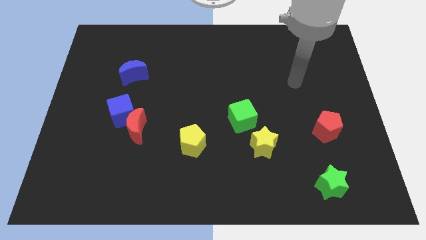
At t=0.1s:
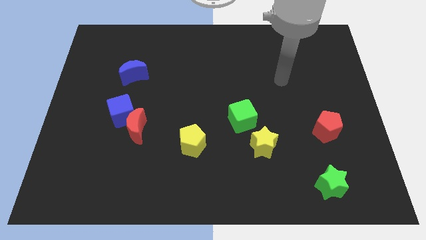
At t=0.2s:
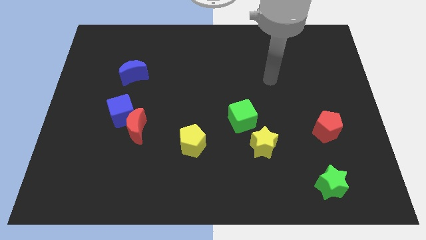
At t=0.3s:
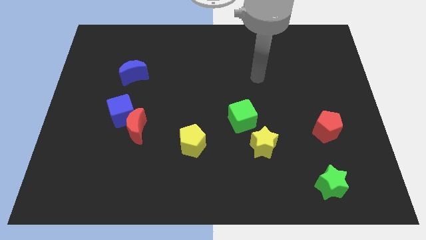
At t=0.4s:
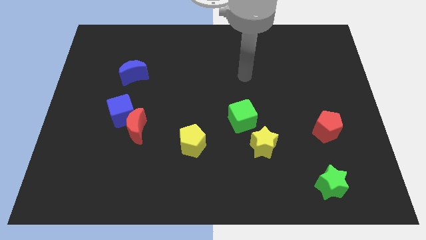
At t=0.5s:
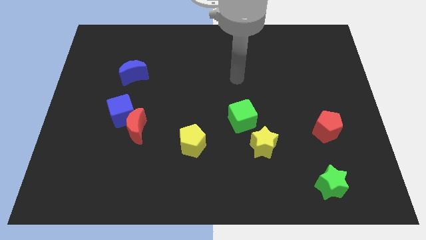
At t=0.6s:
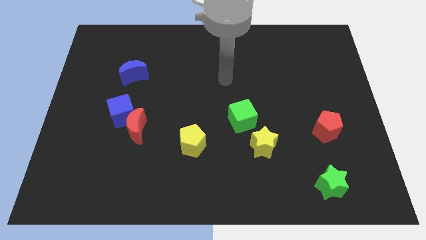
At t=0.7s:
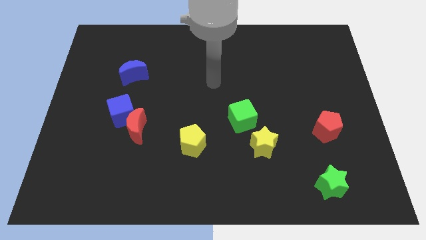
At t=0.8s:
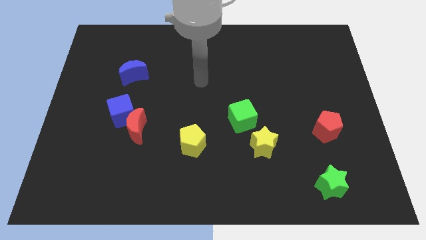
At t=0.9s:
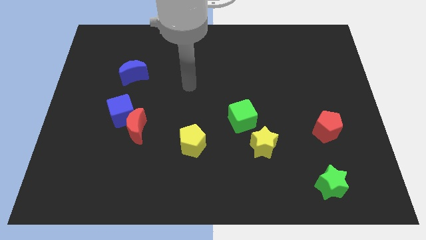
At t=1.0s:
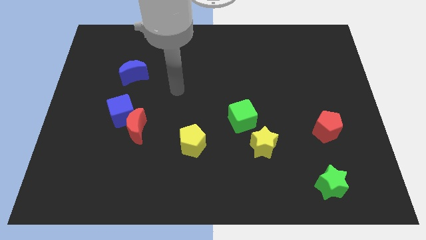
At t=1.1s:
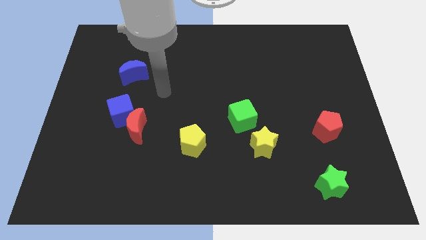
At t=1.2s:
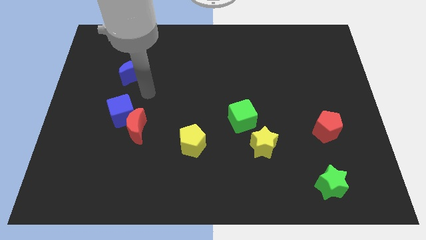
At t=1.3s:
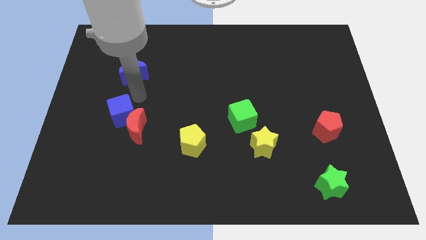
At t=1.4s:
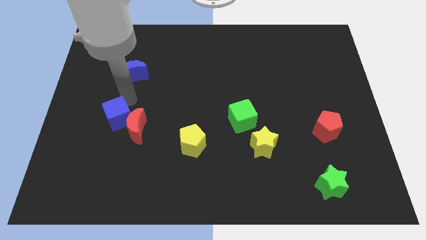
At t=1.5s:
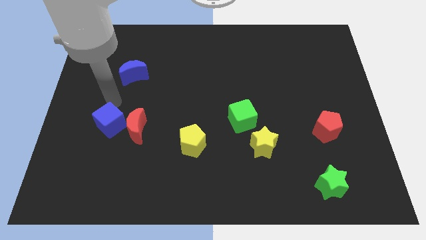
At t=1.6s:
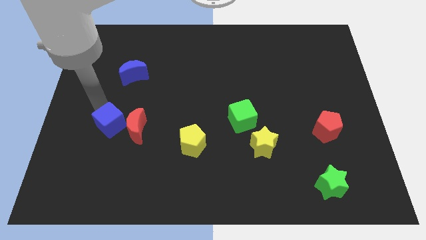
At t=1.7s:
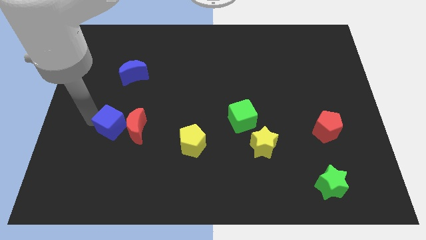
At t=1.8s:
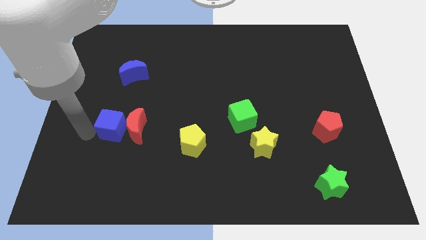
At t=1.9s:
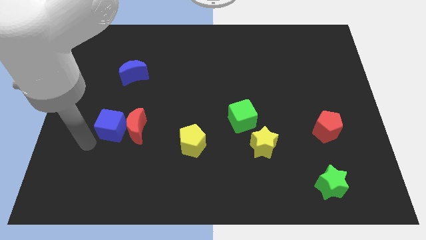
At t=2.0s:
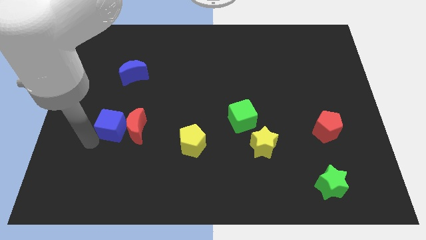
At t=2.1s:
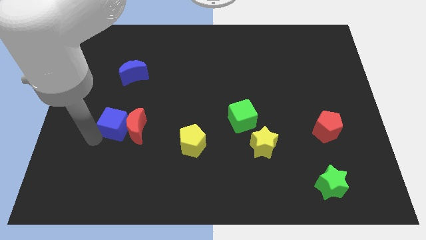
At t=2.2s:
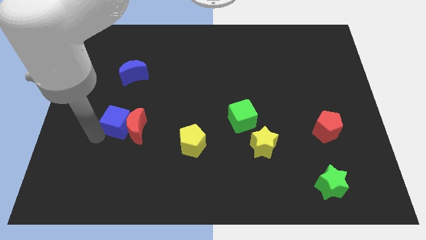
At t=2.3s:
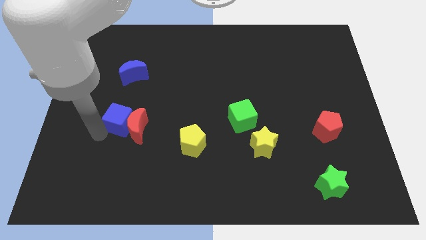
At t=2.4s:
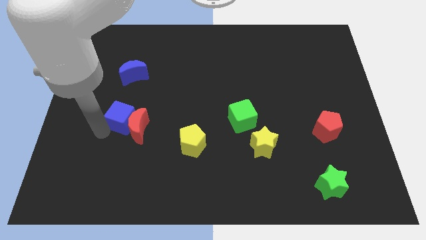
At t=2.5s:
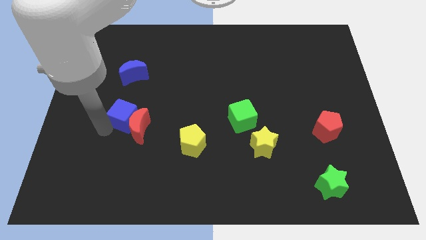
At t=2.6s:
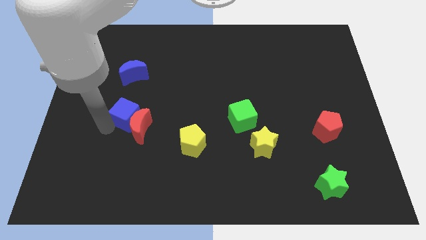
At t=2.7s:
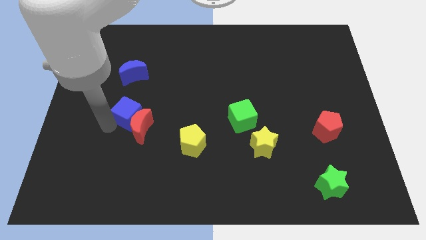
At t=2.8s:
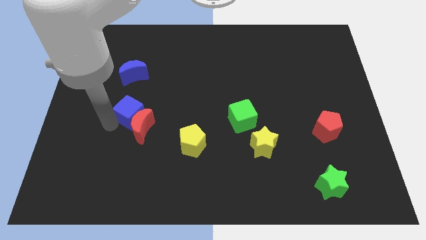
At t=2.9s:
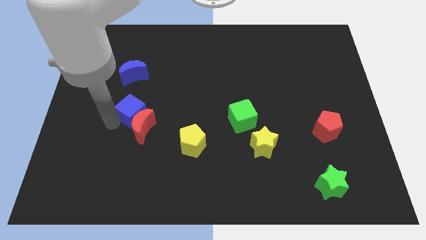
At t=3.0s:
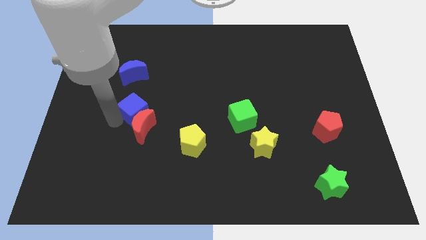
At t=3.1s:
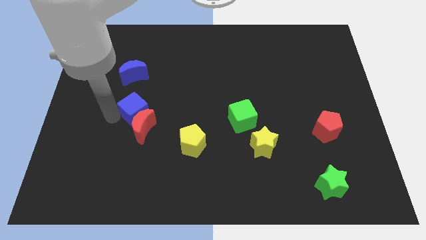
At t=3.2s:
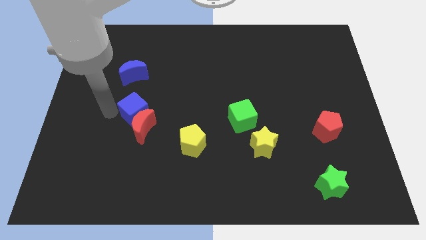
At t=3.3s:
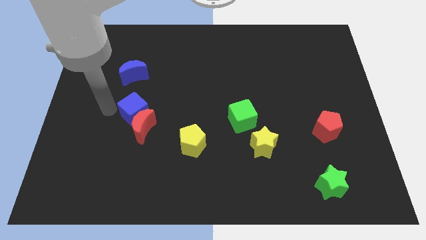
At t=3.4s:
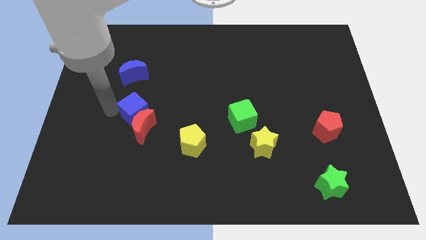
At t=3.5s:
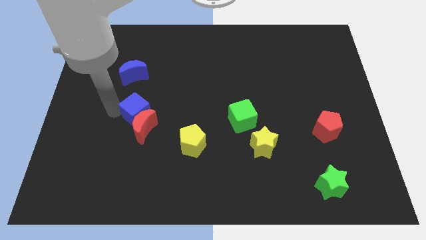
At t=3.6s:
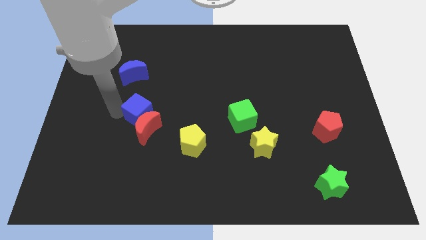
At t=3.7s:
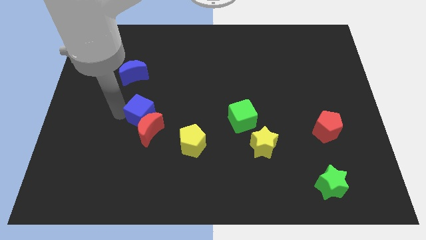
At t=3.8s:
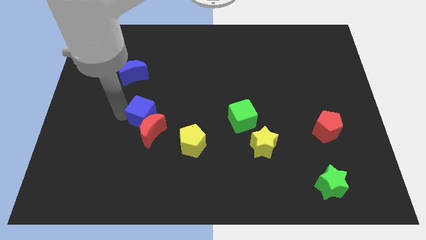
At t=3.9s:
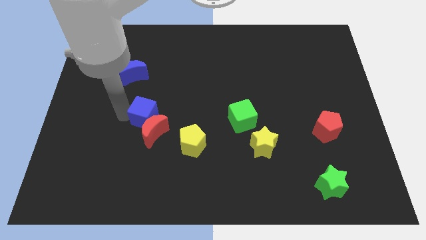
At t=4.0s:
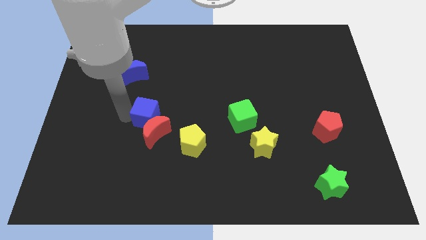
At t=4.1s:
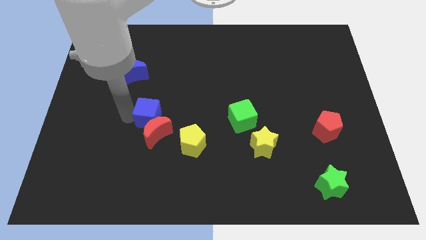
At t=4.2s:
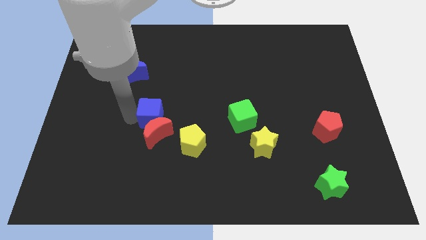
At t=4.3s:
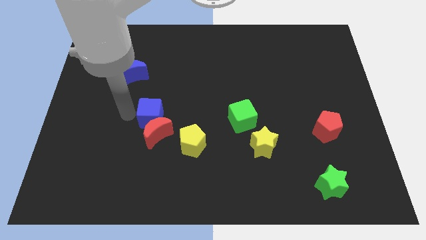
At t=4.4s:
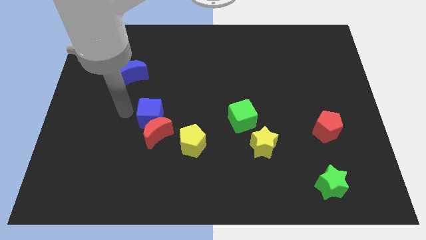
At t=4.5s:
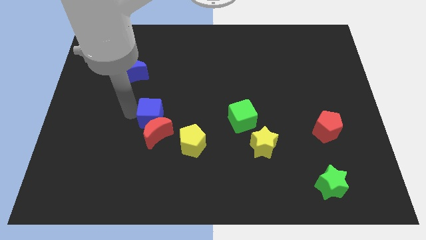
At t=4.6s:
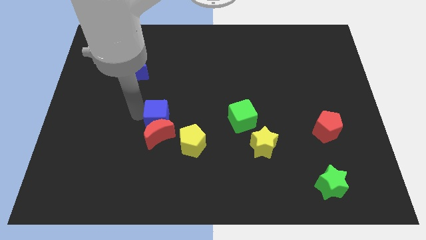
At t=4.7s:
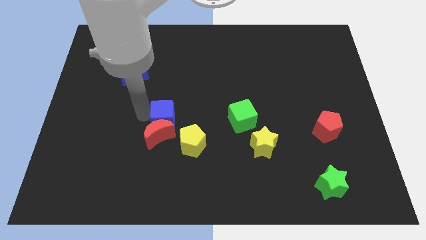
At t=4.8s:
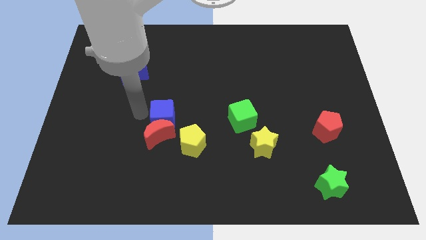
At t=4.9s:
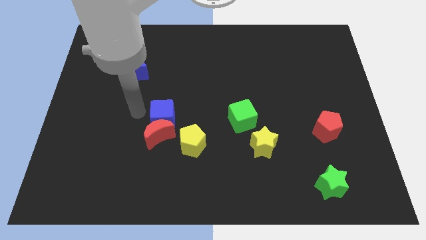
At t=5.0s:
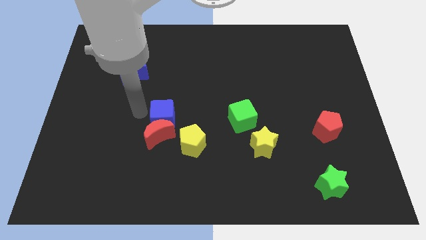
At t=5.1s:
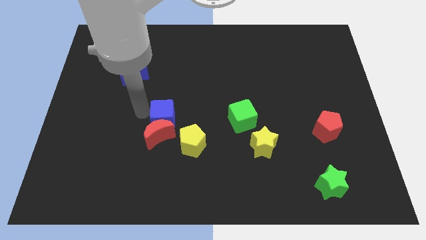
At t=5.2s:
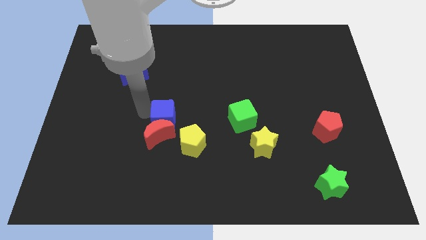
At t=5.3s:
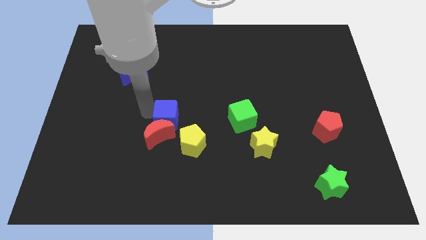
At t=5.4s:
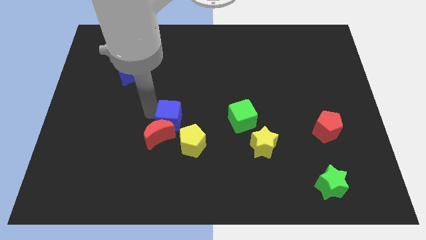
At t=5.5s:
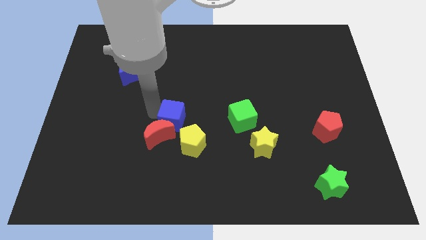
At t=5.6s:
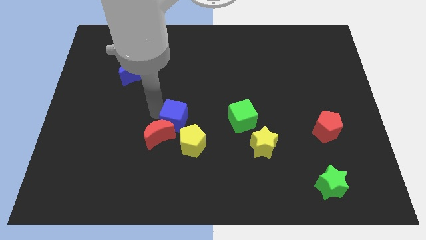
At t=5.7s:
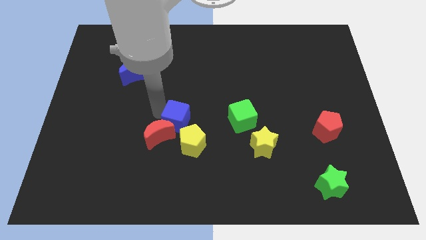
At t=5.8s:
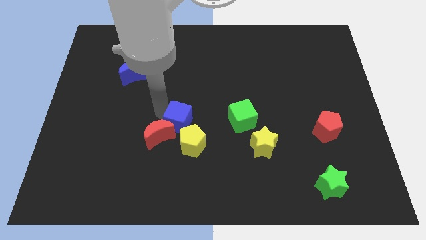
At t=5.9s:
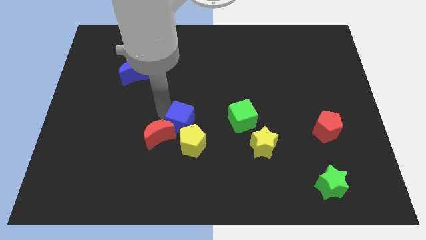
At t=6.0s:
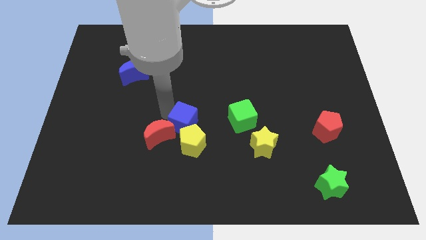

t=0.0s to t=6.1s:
push the blue cube towards the yellow pentagon

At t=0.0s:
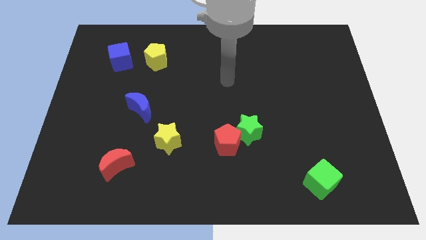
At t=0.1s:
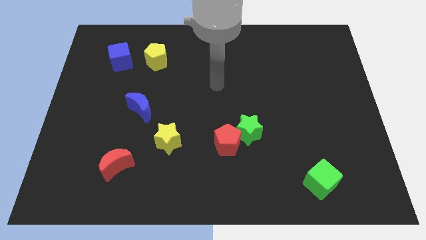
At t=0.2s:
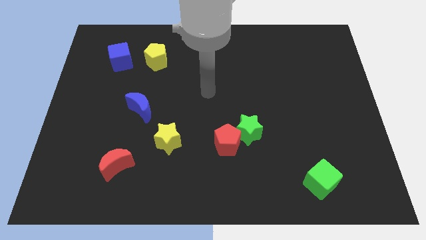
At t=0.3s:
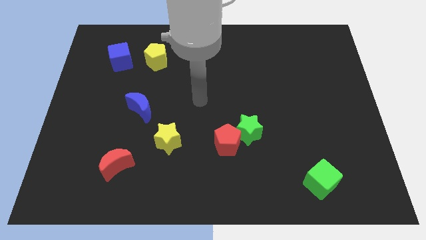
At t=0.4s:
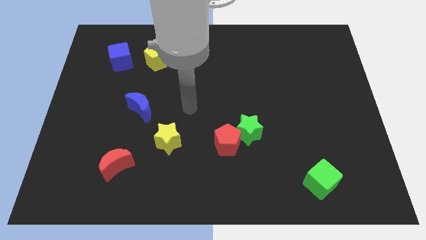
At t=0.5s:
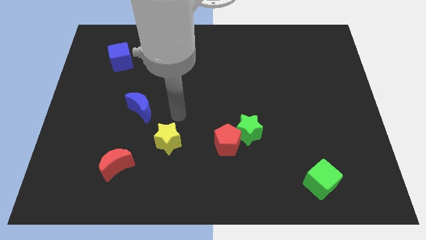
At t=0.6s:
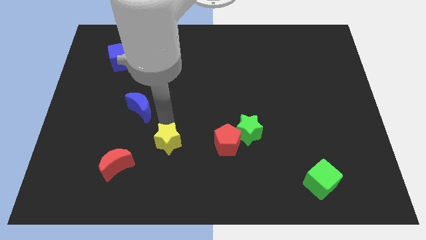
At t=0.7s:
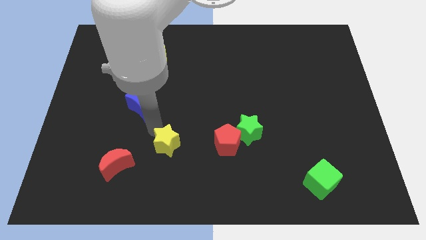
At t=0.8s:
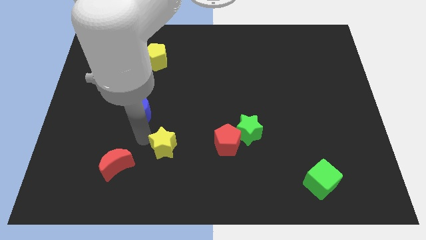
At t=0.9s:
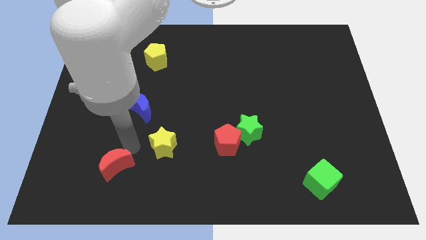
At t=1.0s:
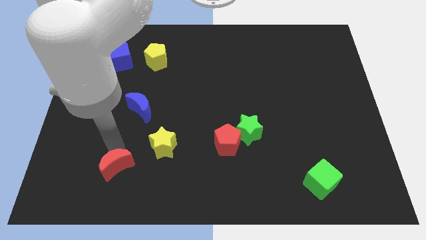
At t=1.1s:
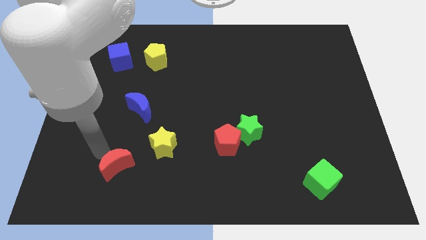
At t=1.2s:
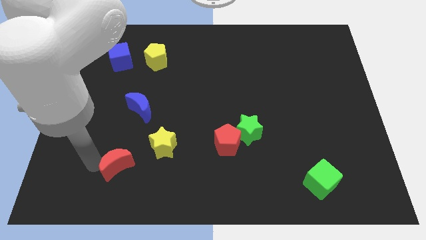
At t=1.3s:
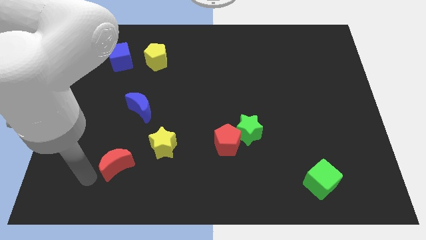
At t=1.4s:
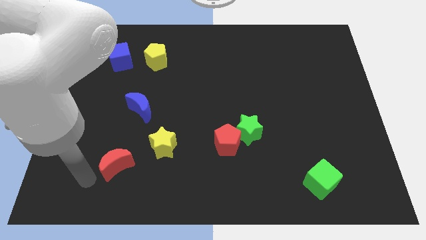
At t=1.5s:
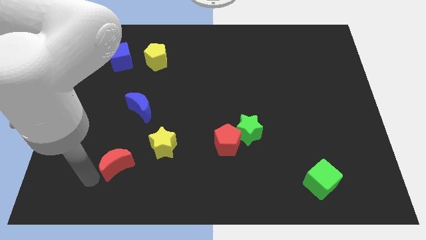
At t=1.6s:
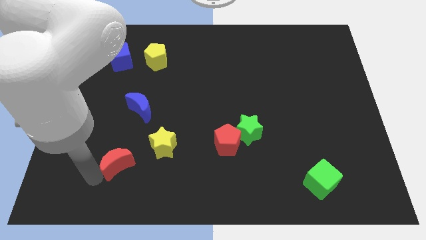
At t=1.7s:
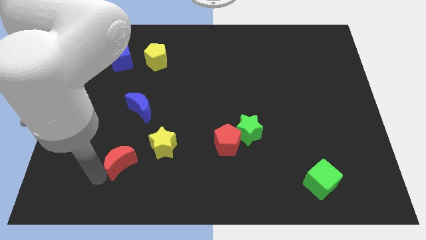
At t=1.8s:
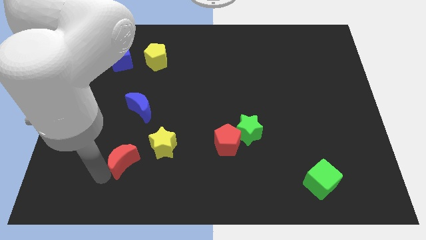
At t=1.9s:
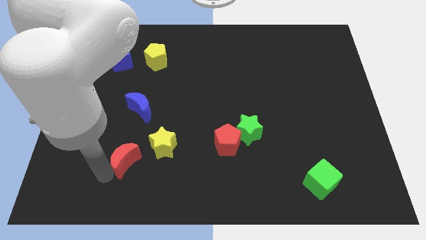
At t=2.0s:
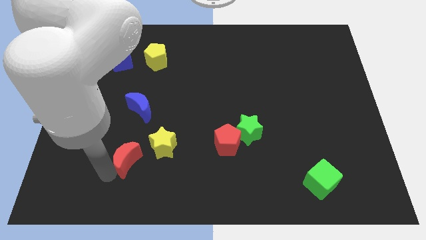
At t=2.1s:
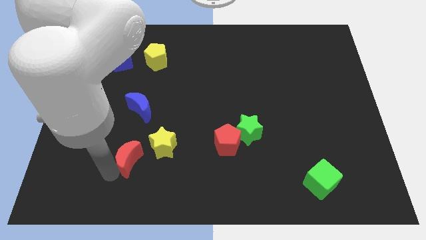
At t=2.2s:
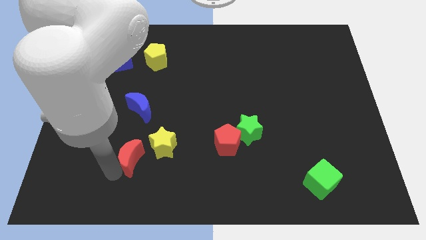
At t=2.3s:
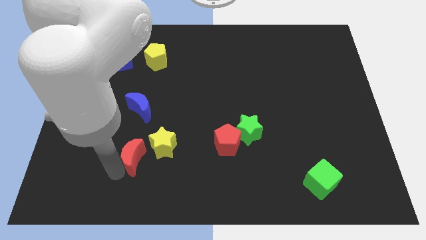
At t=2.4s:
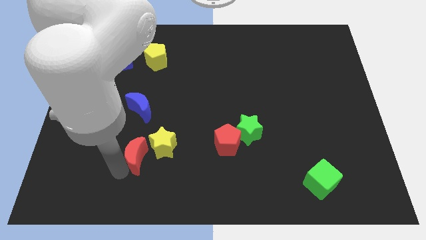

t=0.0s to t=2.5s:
move the red moon close to the yellow star
